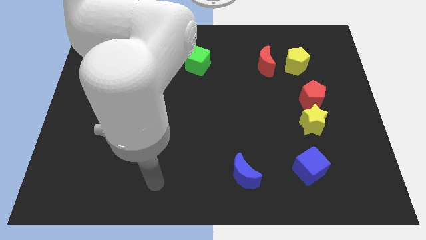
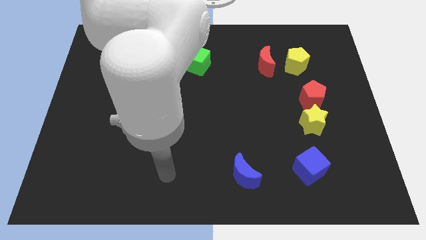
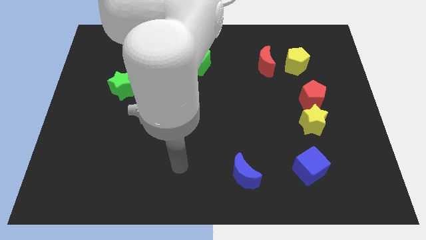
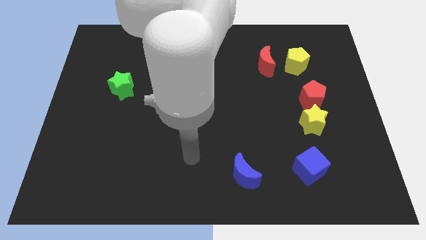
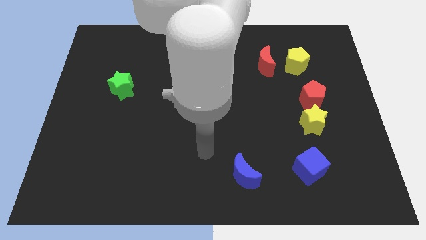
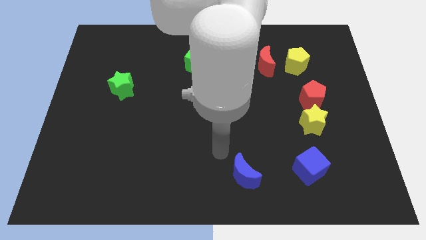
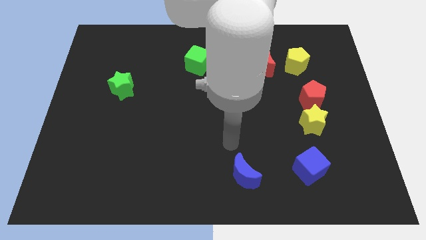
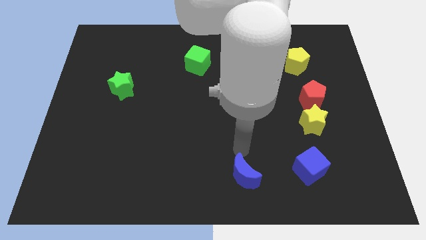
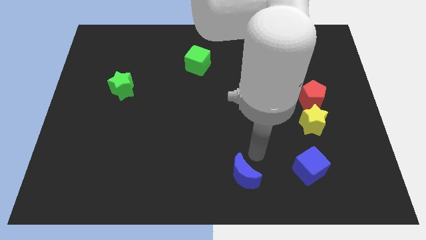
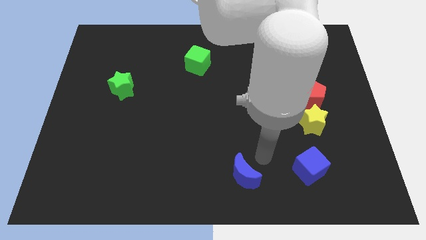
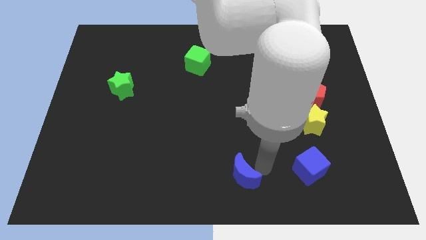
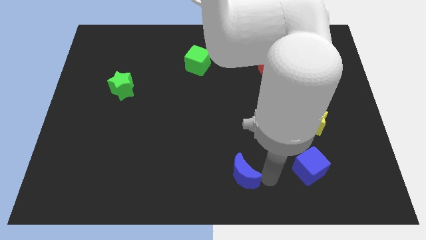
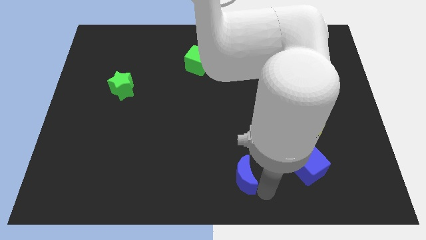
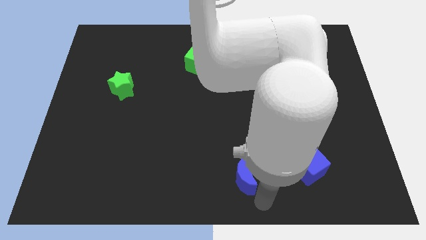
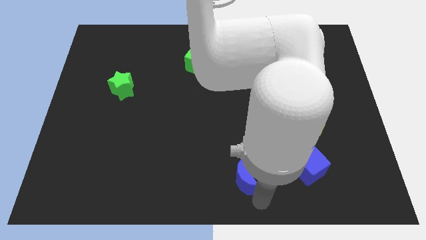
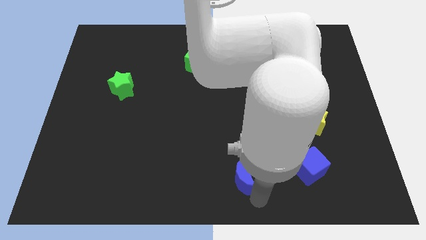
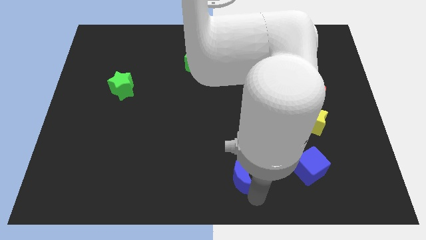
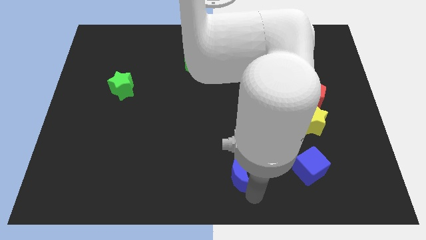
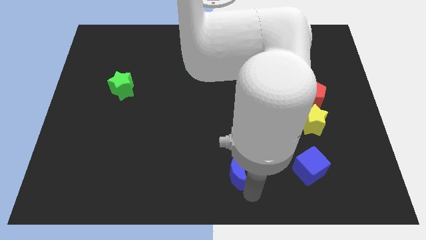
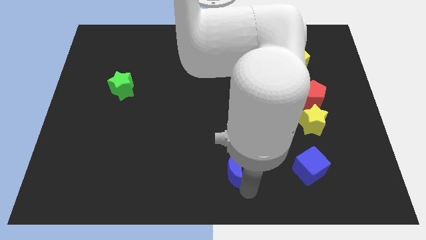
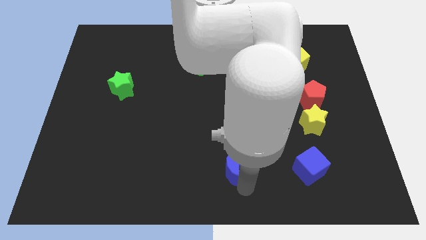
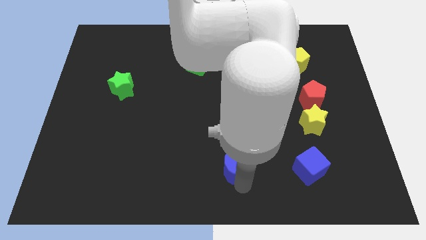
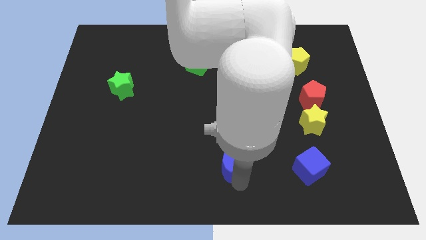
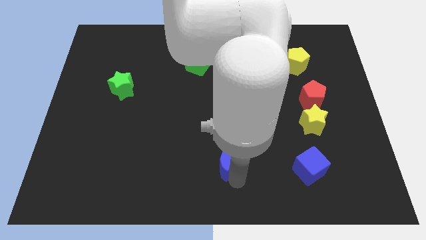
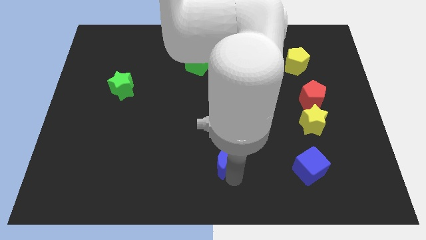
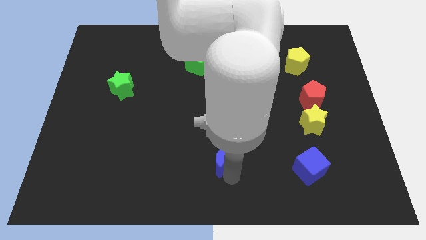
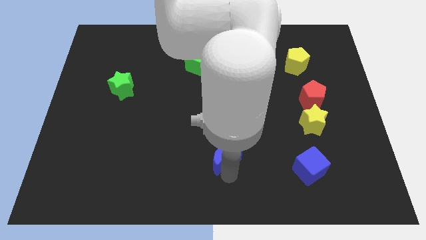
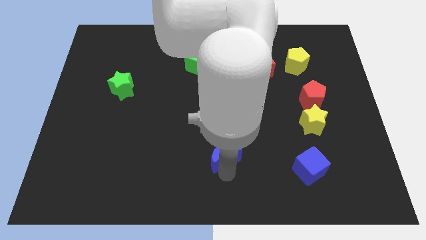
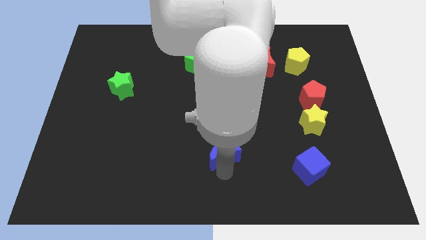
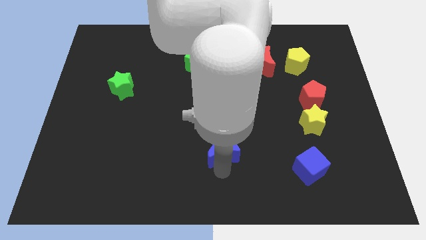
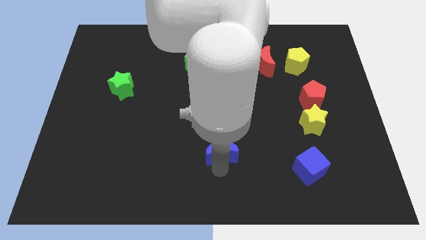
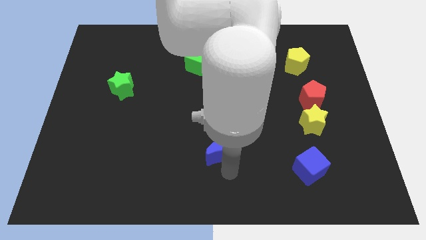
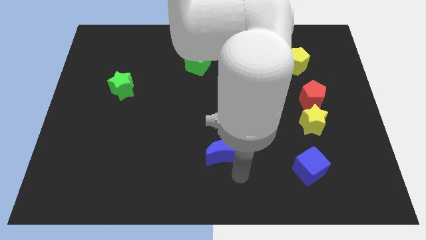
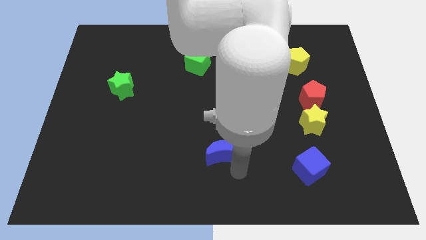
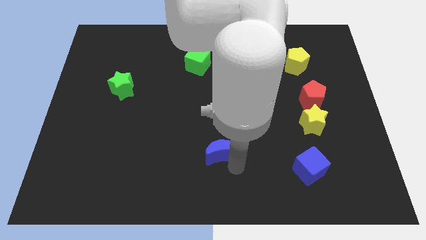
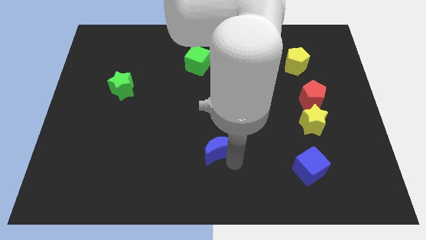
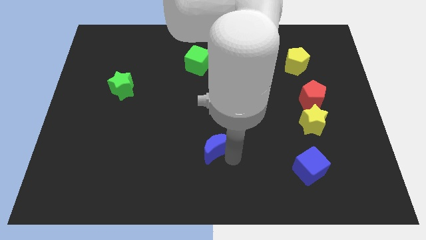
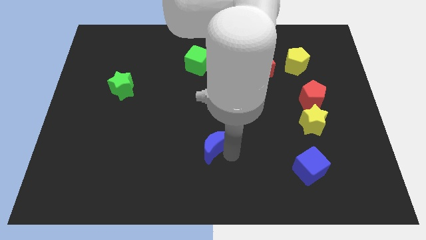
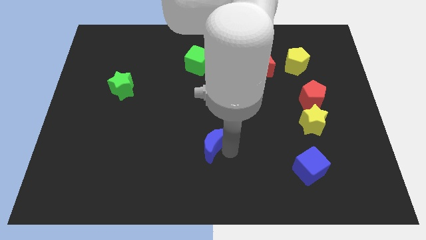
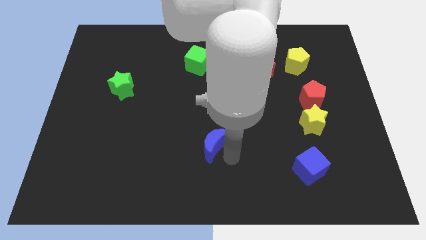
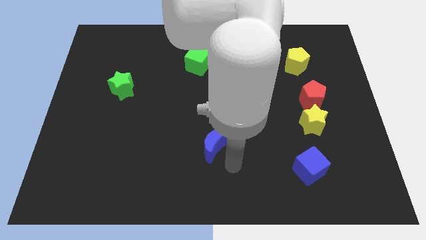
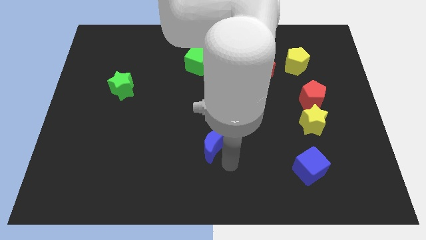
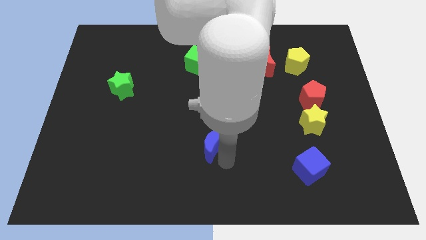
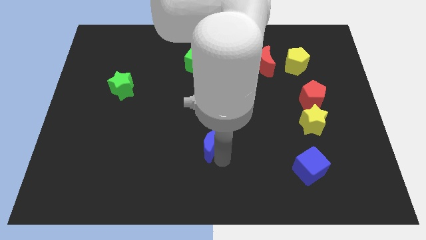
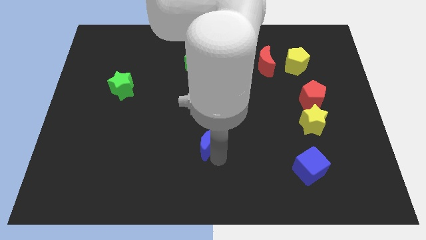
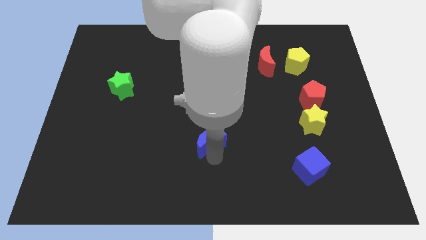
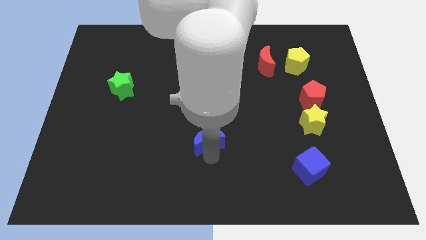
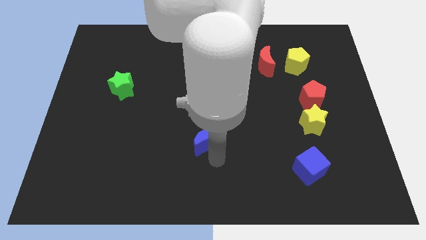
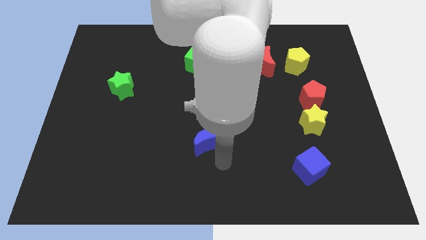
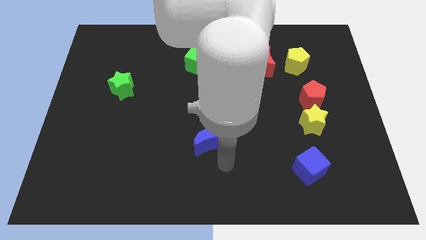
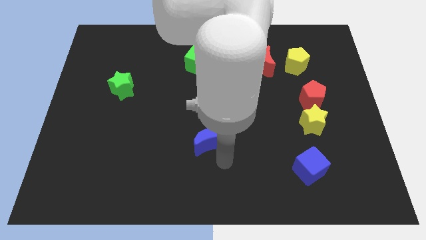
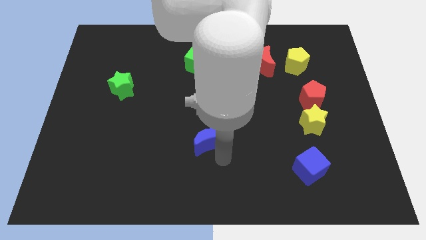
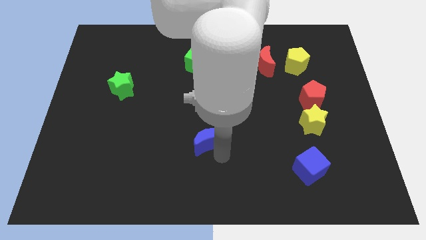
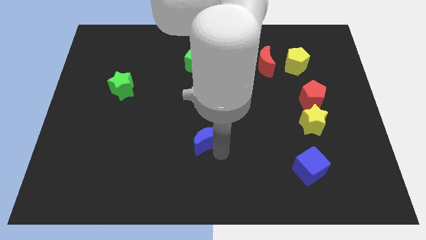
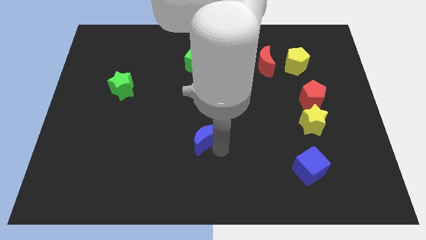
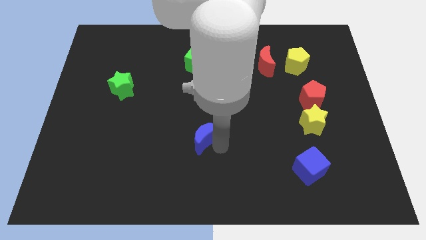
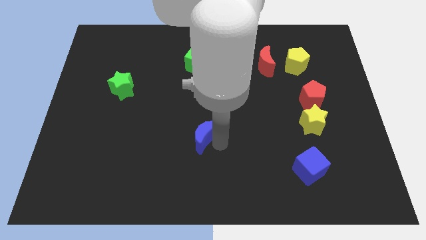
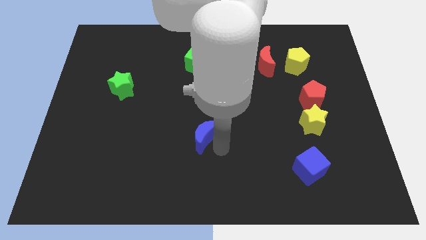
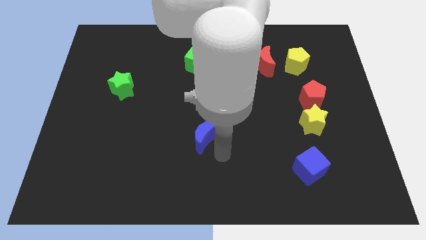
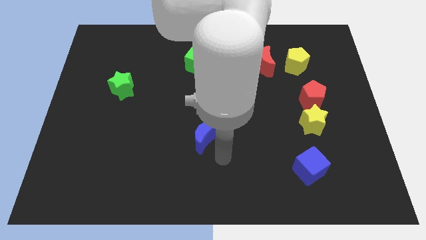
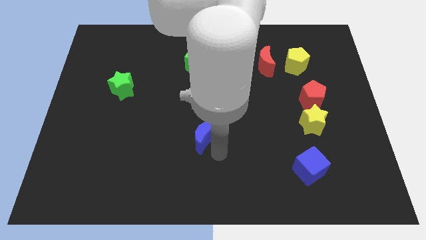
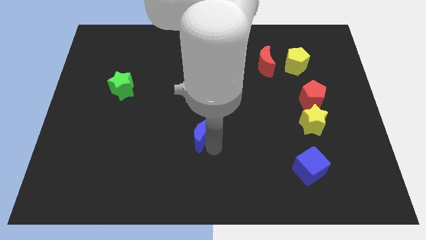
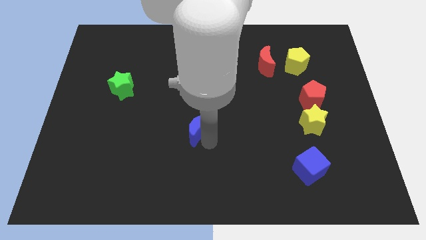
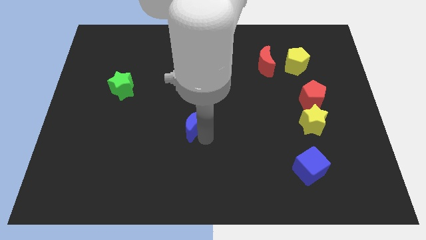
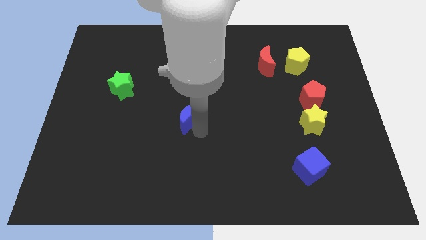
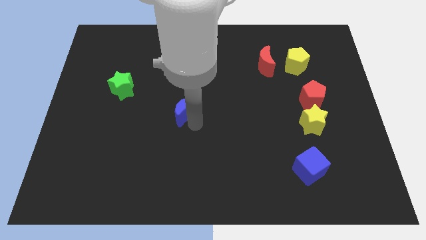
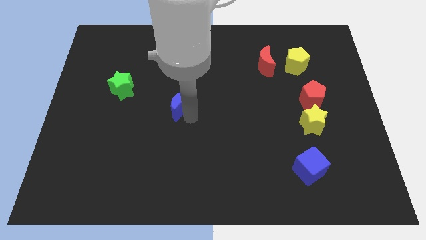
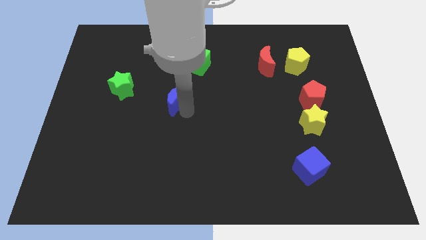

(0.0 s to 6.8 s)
put the blue moon to the right side of the green star

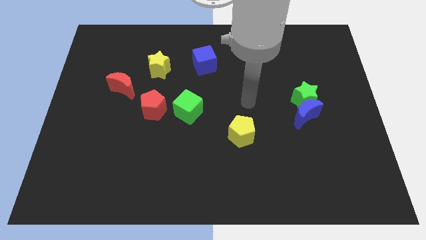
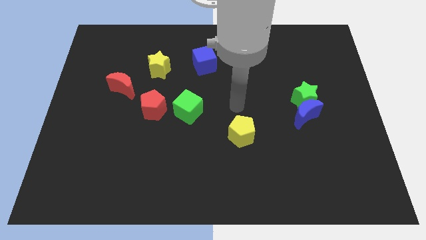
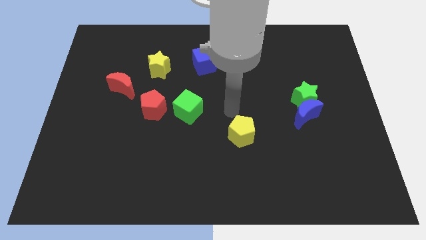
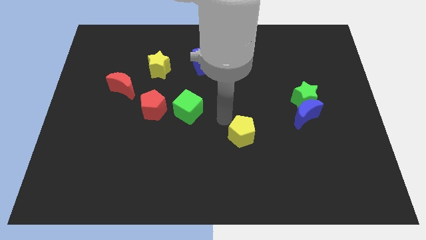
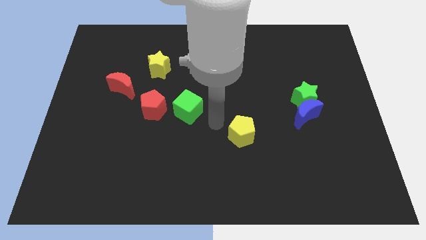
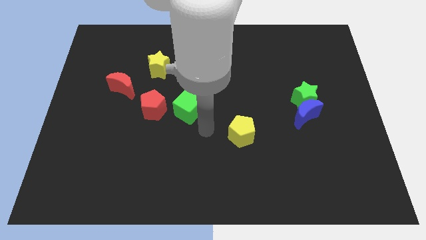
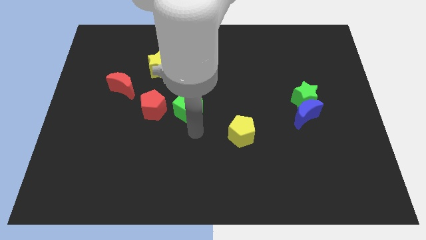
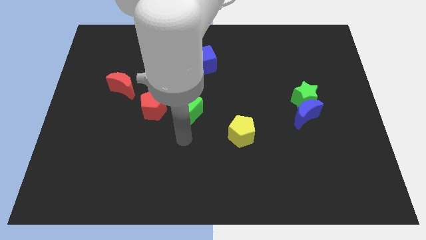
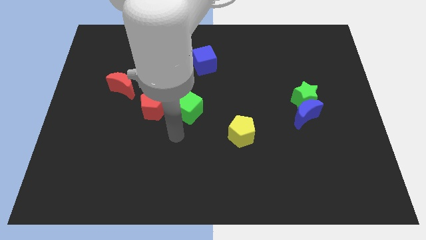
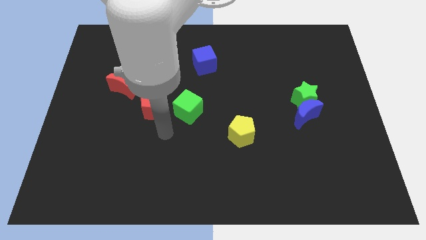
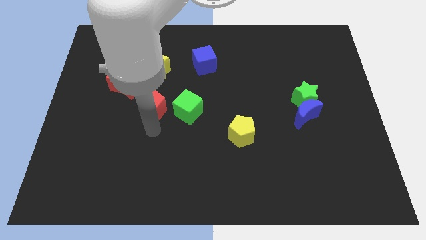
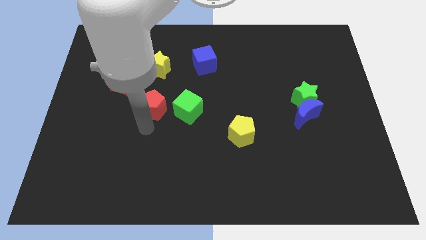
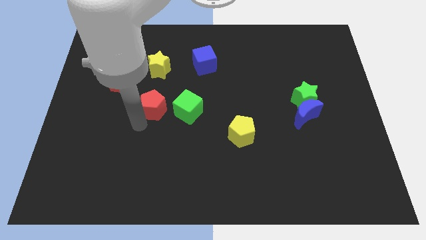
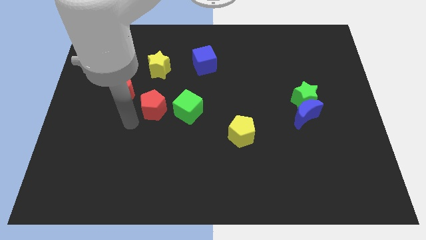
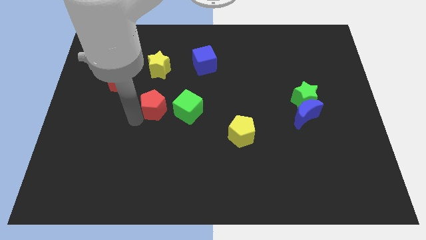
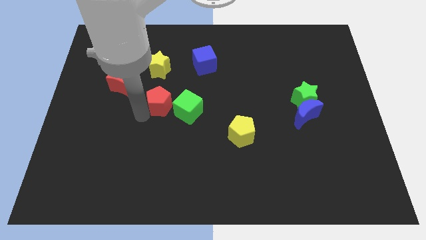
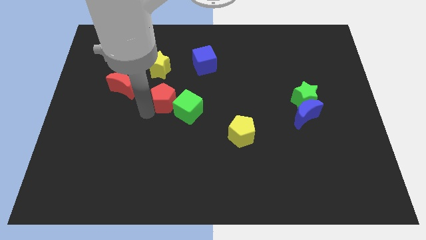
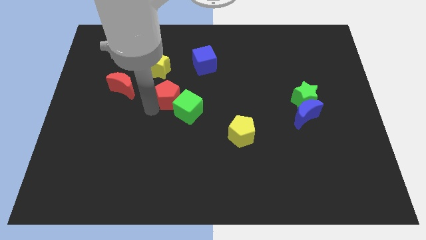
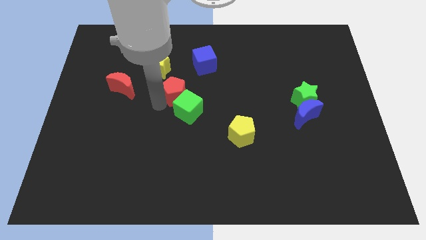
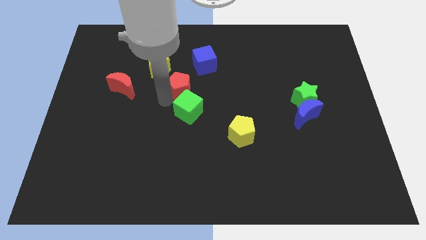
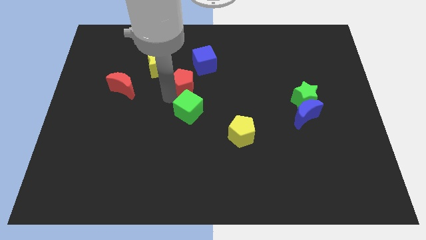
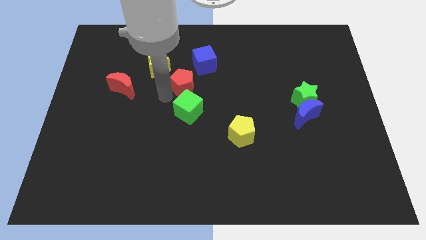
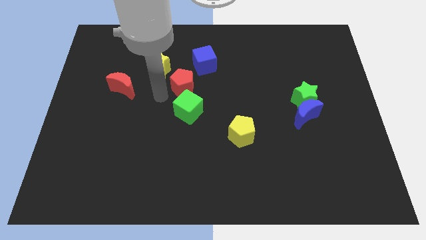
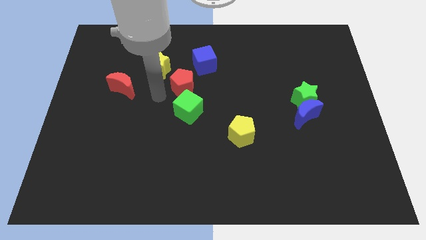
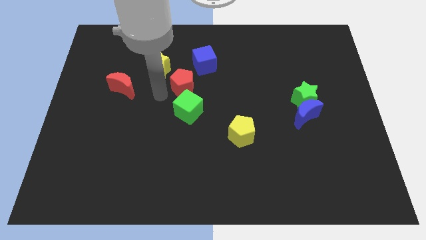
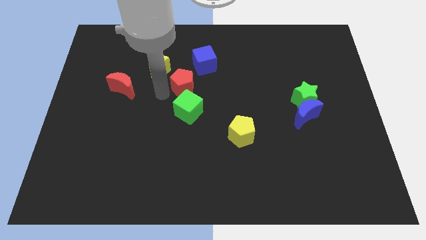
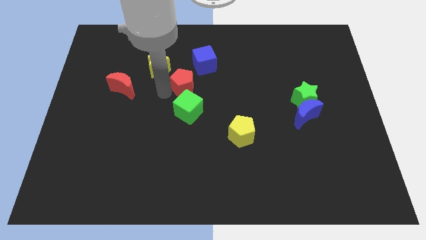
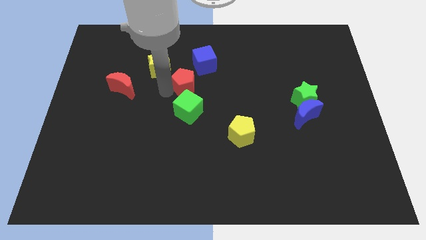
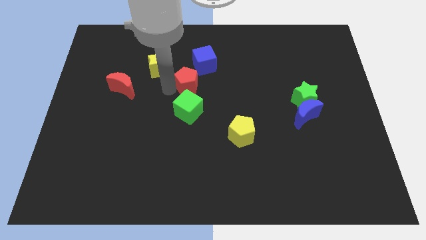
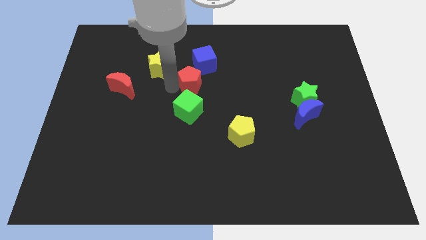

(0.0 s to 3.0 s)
put the red pentagon to the right side of the yellow star
